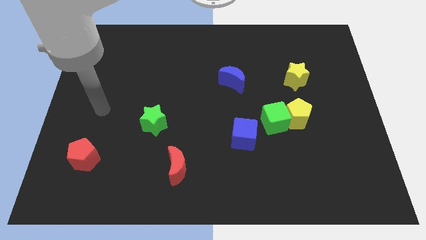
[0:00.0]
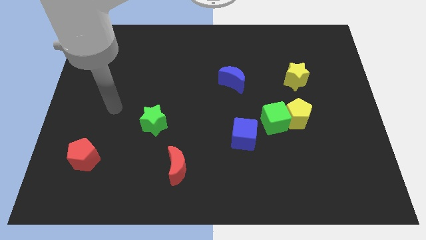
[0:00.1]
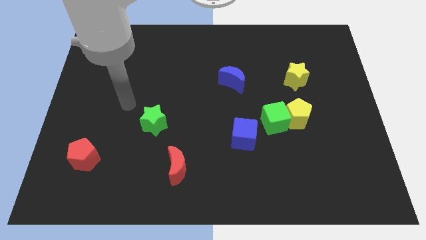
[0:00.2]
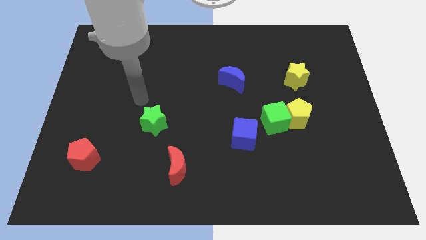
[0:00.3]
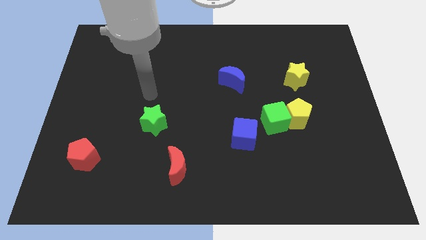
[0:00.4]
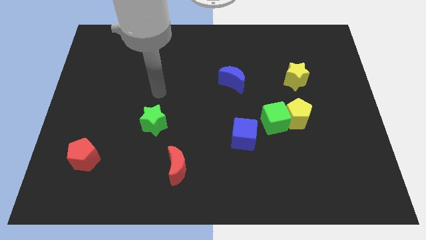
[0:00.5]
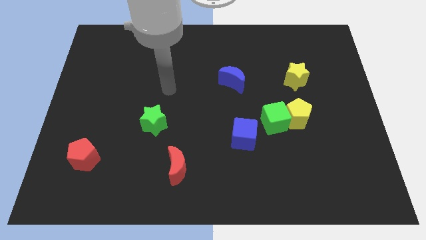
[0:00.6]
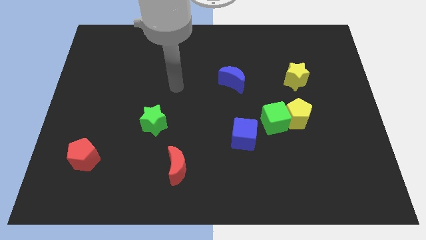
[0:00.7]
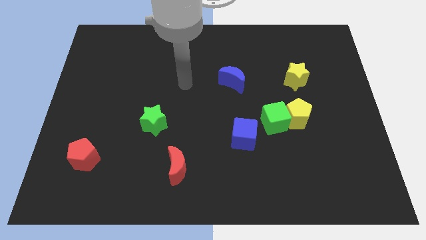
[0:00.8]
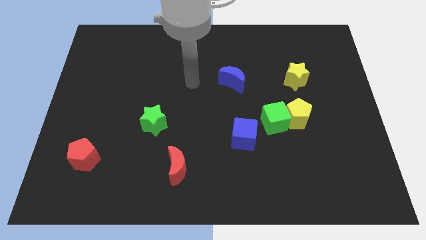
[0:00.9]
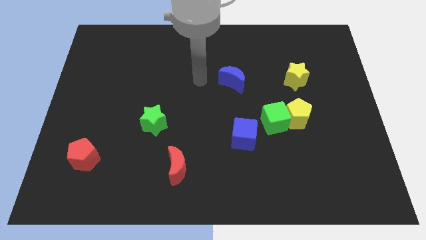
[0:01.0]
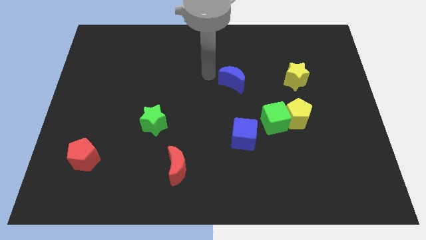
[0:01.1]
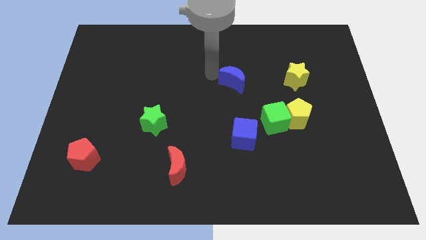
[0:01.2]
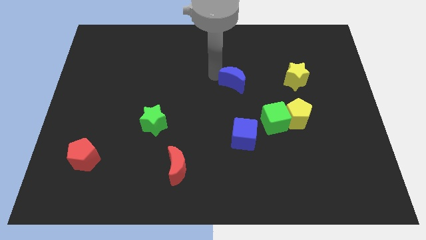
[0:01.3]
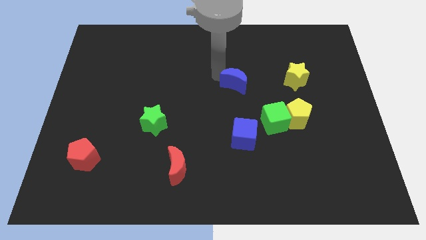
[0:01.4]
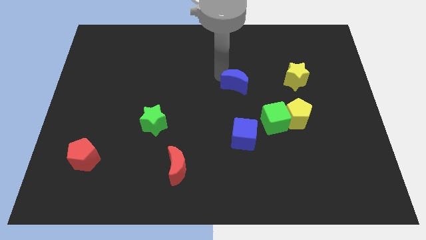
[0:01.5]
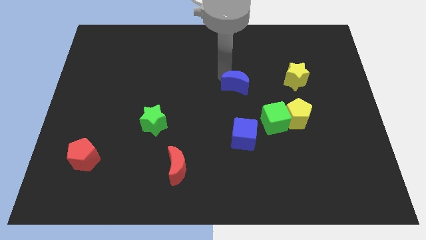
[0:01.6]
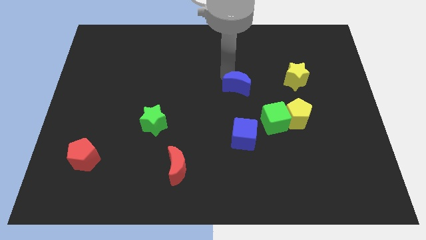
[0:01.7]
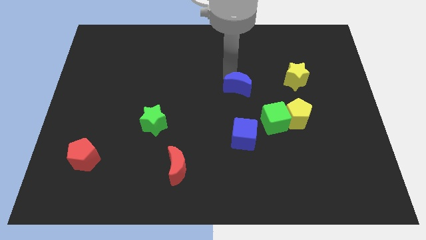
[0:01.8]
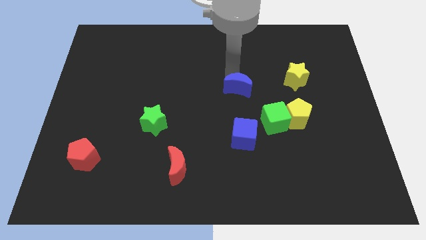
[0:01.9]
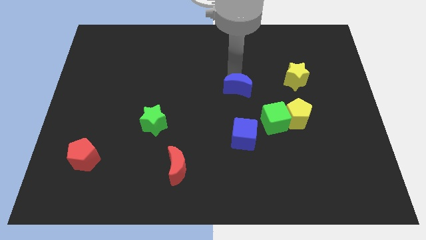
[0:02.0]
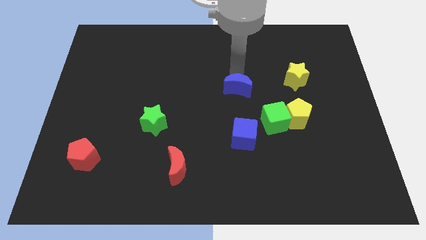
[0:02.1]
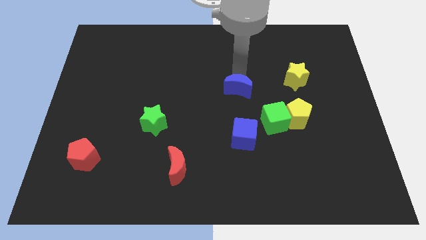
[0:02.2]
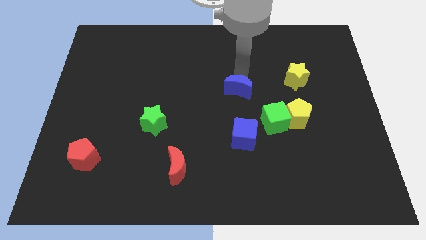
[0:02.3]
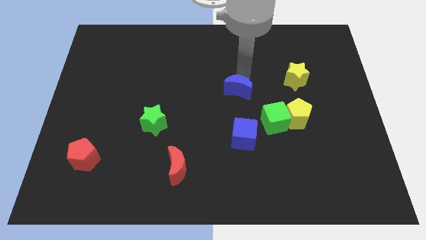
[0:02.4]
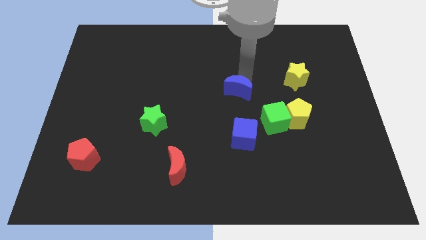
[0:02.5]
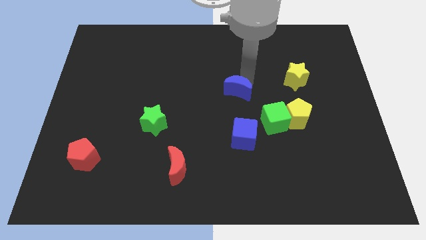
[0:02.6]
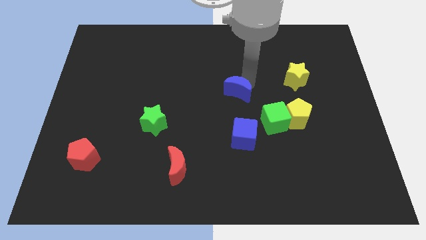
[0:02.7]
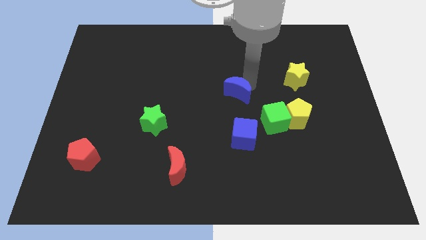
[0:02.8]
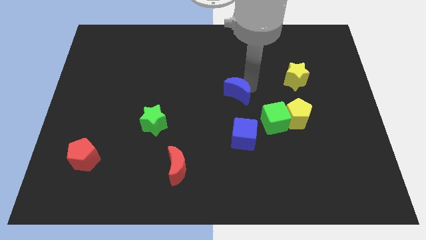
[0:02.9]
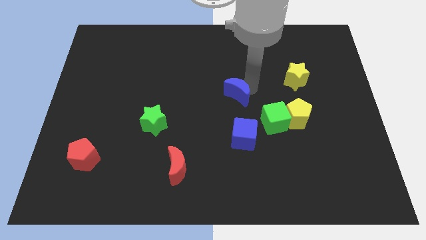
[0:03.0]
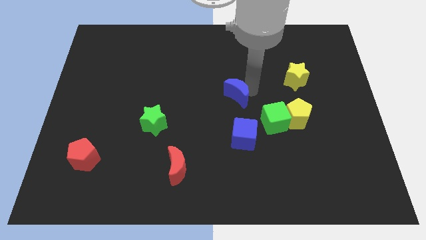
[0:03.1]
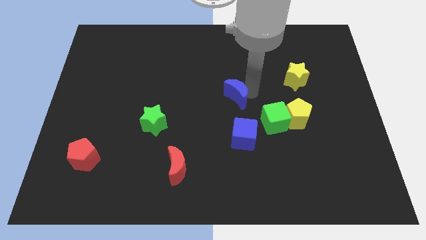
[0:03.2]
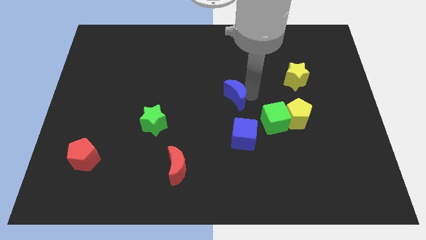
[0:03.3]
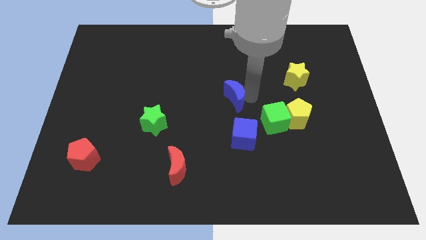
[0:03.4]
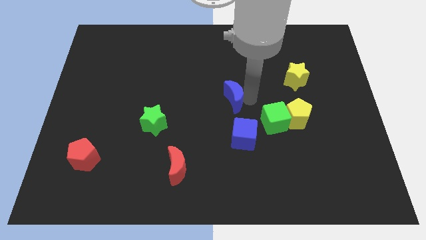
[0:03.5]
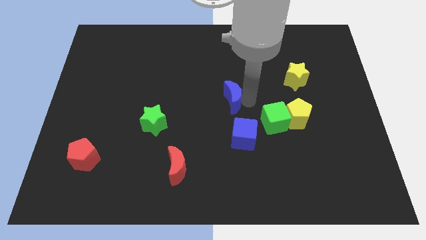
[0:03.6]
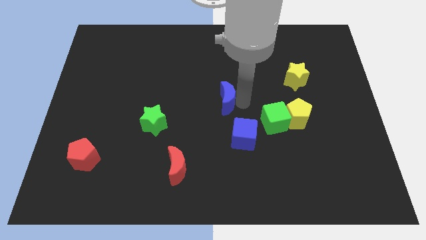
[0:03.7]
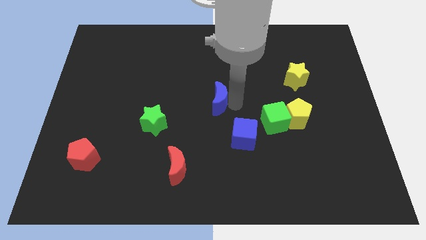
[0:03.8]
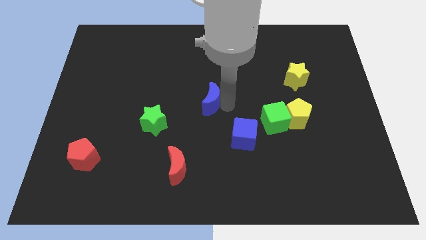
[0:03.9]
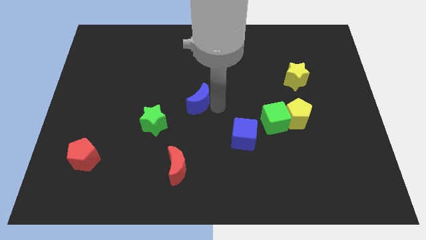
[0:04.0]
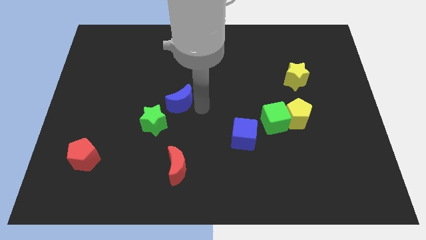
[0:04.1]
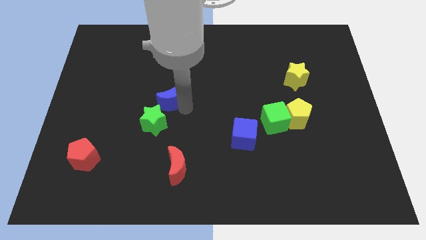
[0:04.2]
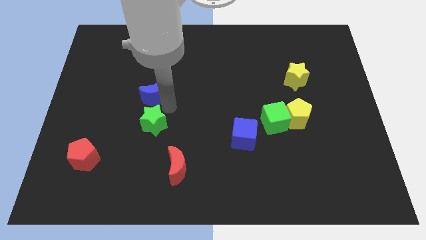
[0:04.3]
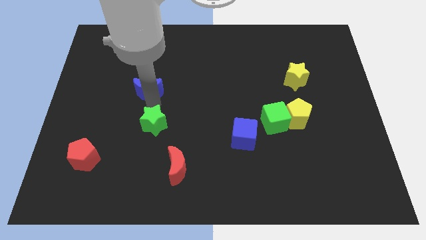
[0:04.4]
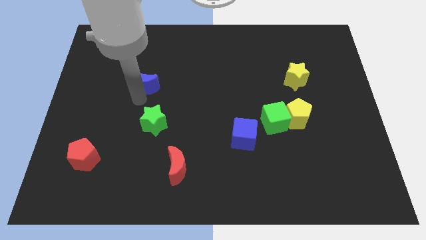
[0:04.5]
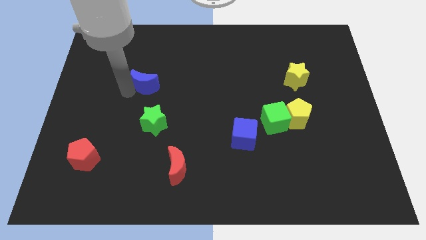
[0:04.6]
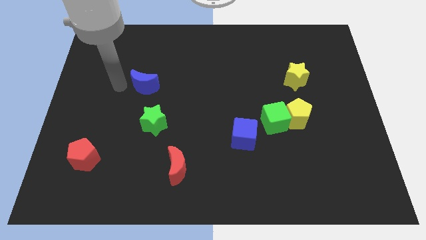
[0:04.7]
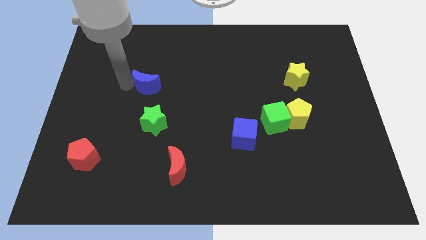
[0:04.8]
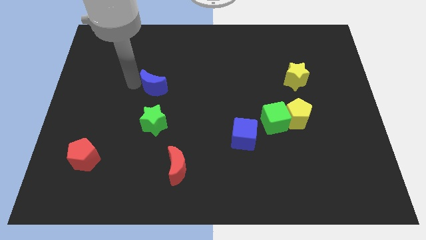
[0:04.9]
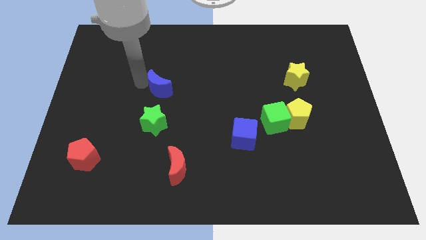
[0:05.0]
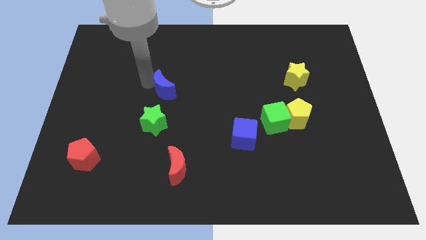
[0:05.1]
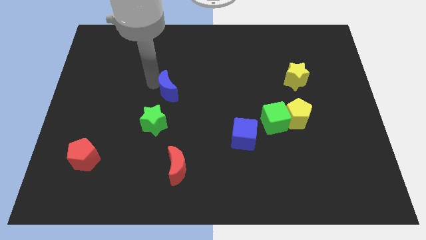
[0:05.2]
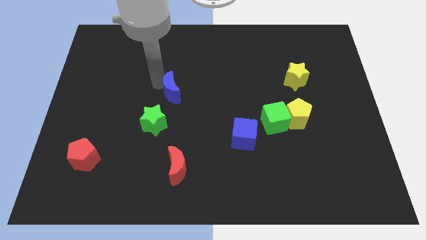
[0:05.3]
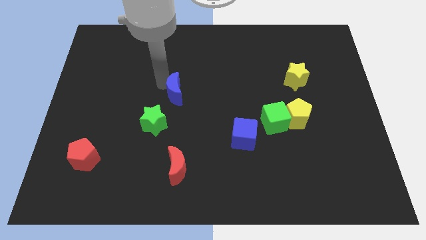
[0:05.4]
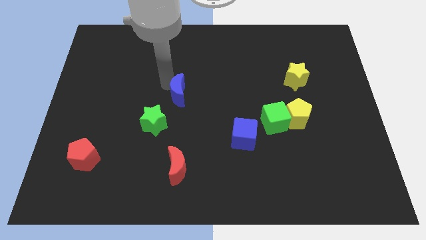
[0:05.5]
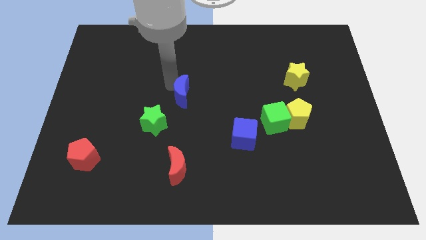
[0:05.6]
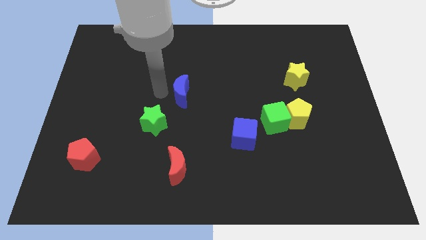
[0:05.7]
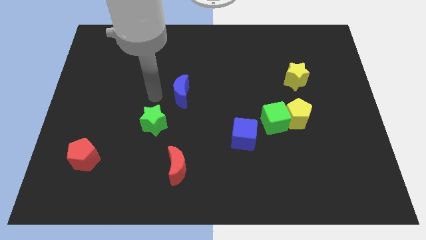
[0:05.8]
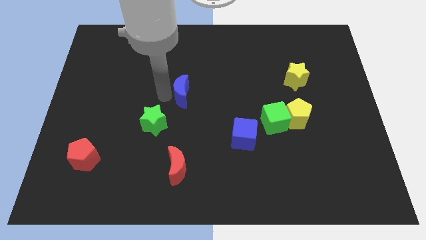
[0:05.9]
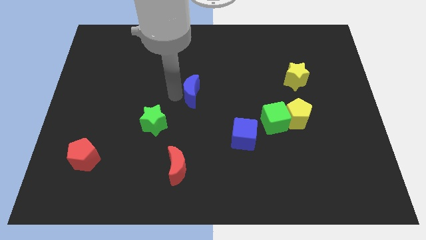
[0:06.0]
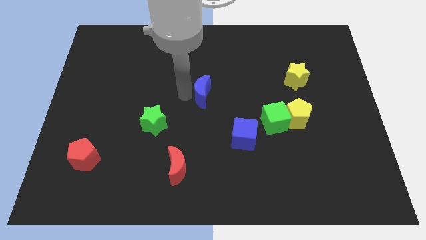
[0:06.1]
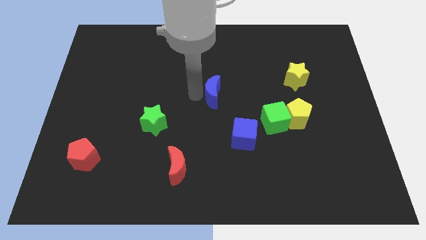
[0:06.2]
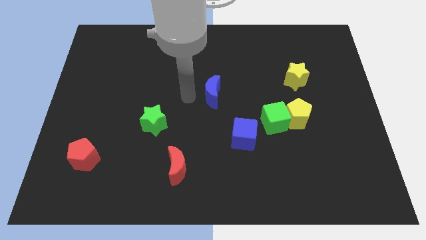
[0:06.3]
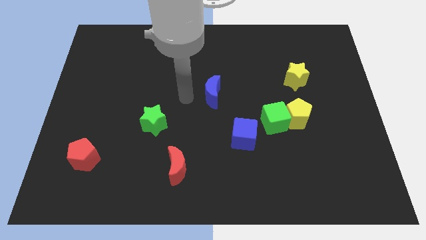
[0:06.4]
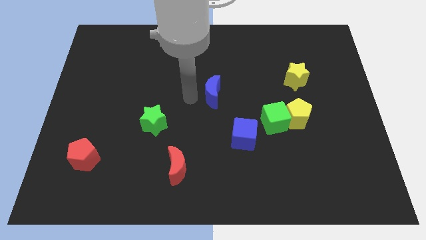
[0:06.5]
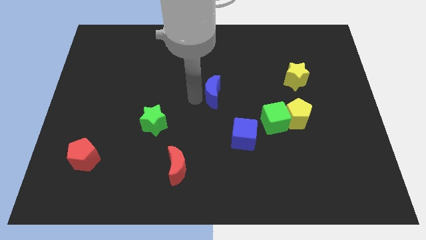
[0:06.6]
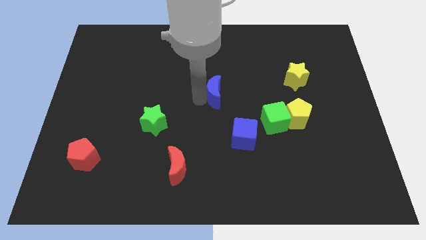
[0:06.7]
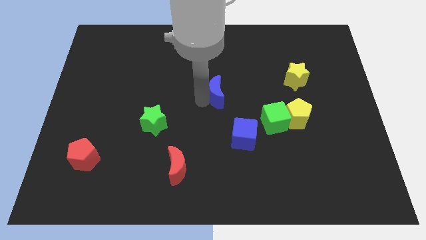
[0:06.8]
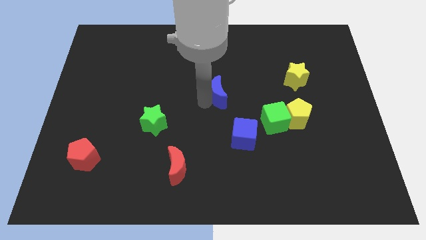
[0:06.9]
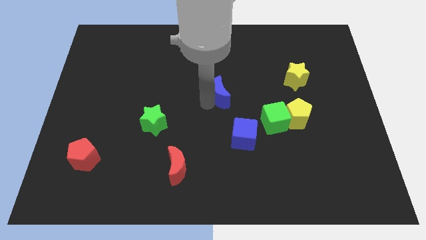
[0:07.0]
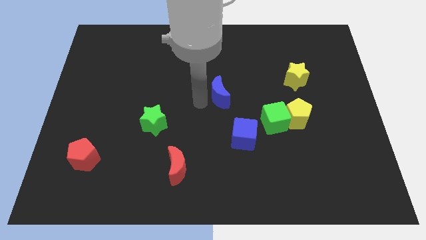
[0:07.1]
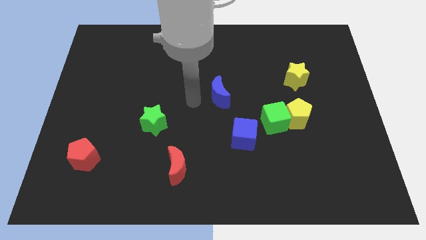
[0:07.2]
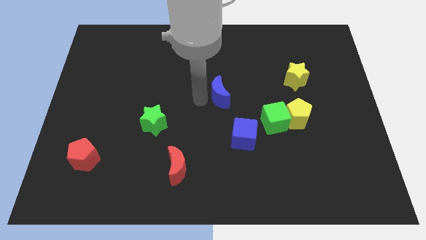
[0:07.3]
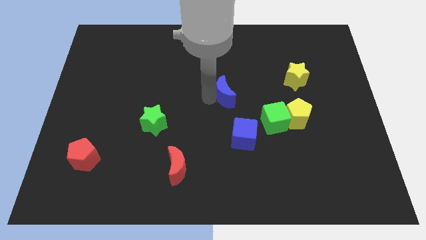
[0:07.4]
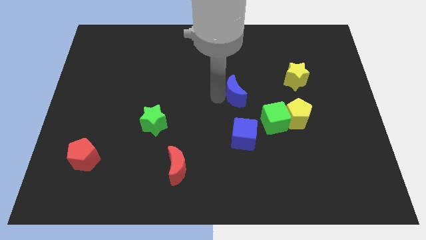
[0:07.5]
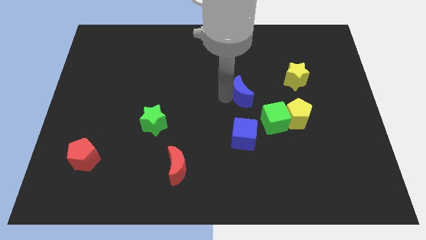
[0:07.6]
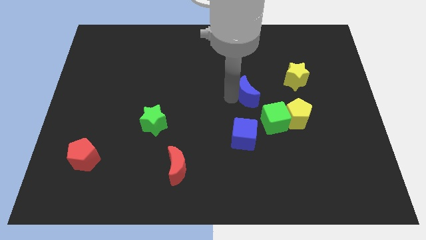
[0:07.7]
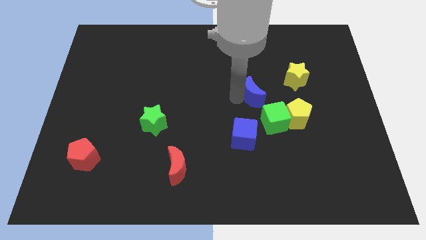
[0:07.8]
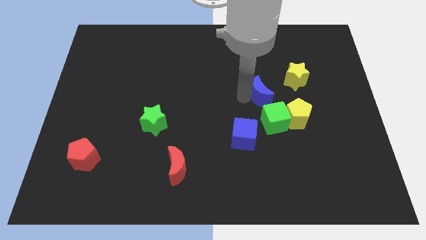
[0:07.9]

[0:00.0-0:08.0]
slide the blue moon to the bottom left of the yellow star
